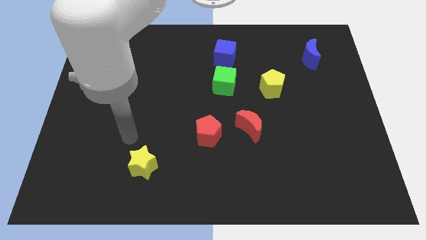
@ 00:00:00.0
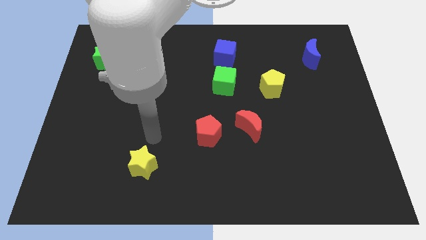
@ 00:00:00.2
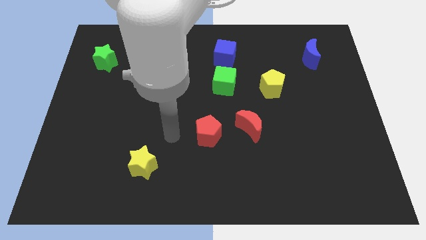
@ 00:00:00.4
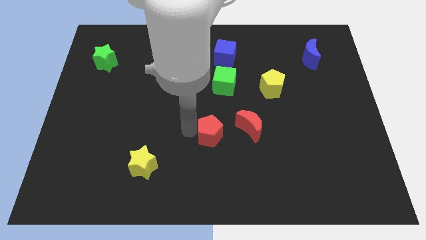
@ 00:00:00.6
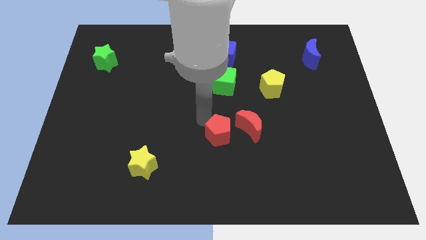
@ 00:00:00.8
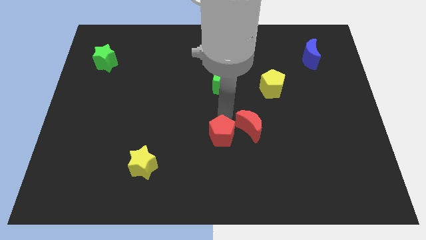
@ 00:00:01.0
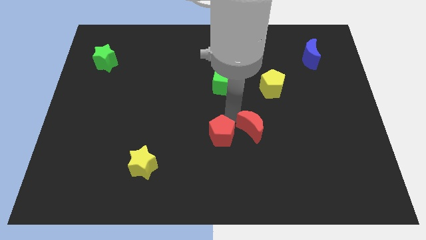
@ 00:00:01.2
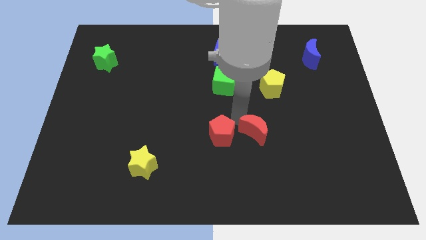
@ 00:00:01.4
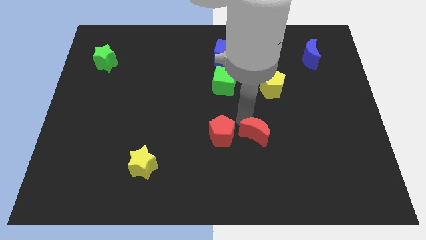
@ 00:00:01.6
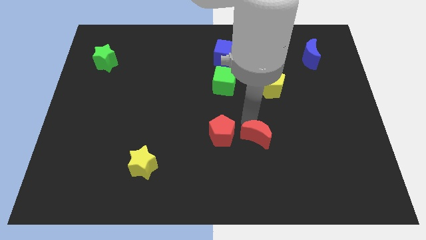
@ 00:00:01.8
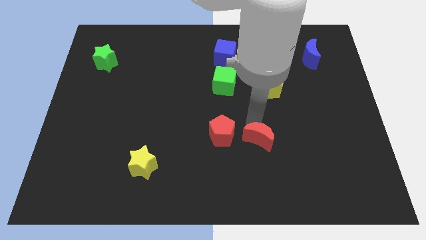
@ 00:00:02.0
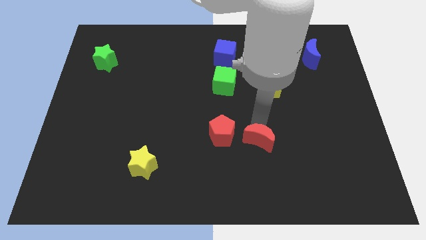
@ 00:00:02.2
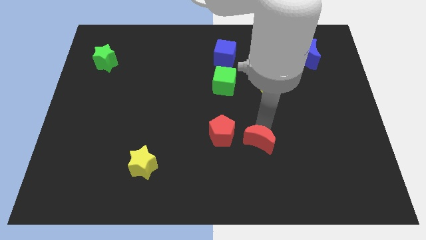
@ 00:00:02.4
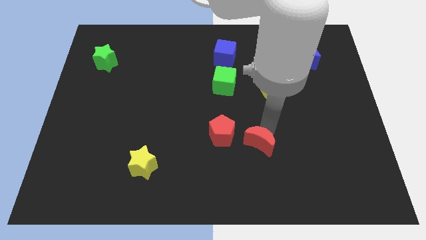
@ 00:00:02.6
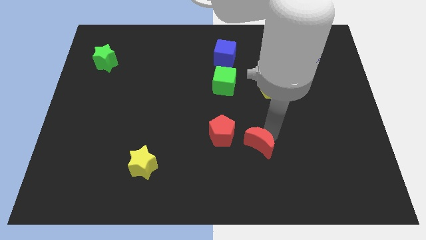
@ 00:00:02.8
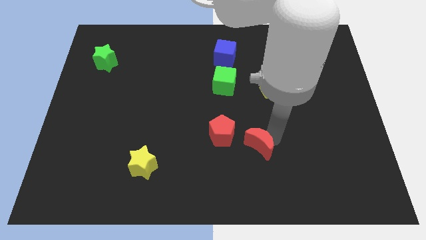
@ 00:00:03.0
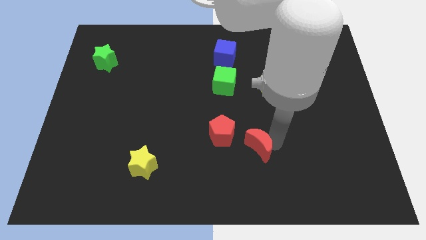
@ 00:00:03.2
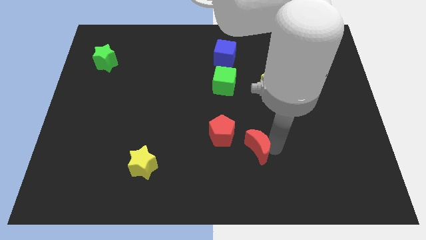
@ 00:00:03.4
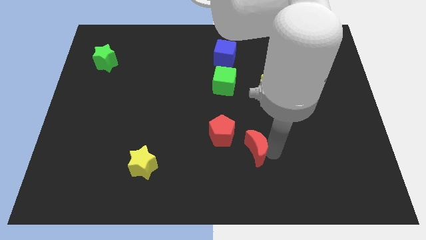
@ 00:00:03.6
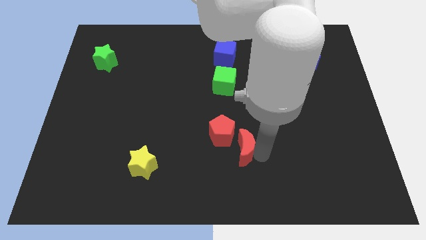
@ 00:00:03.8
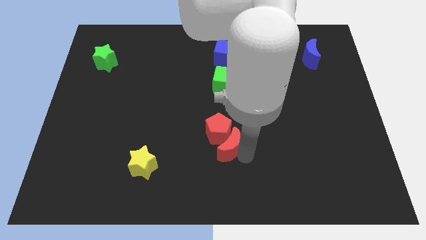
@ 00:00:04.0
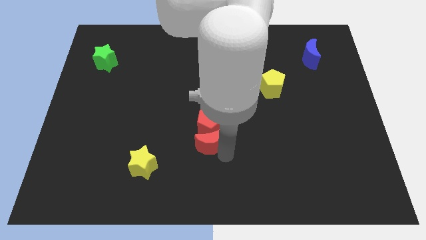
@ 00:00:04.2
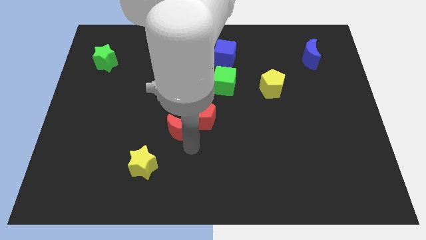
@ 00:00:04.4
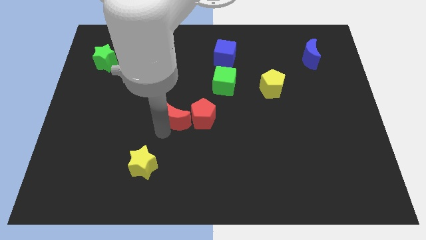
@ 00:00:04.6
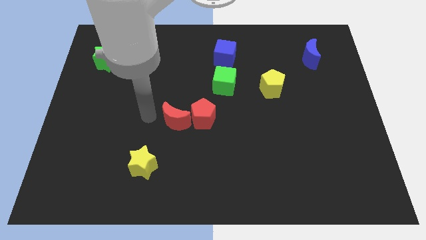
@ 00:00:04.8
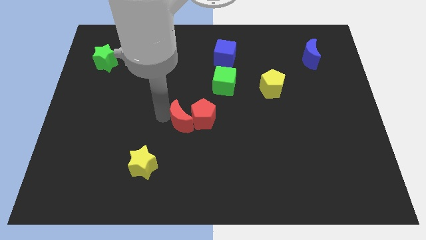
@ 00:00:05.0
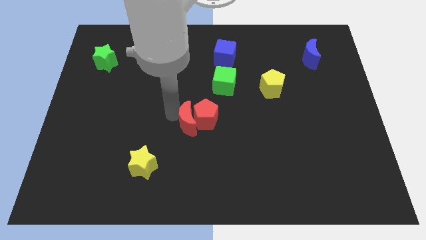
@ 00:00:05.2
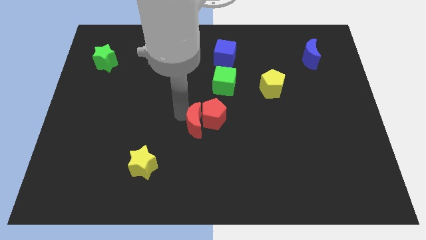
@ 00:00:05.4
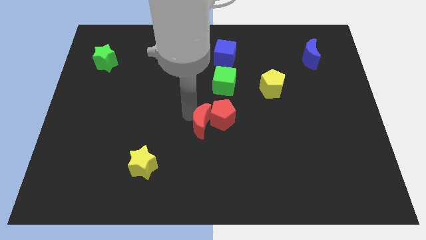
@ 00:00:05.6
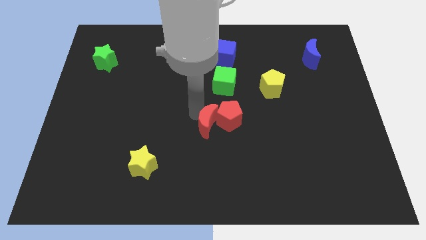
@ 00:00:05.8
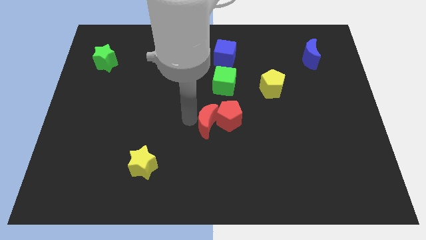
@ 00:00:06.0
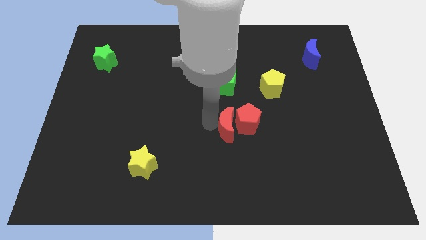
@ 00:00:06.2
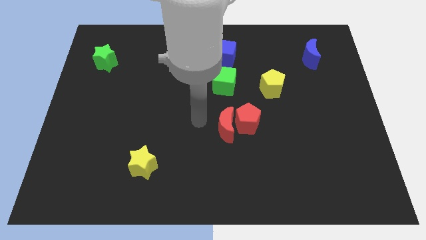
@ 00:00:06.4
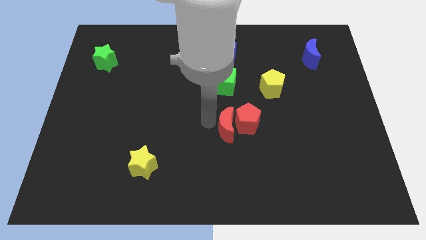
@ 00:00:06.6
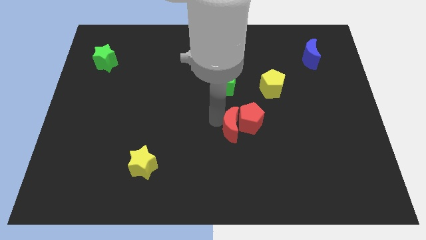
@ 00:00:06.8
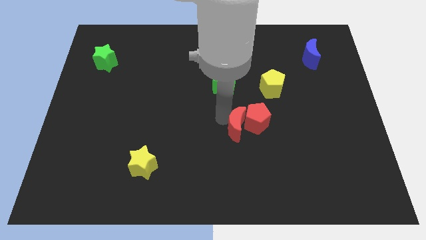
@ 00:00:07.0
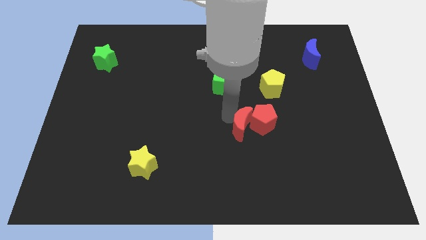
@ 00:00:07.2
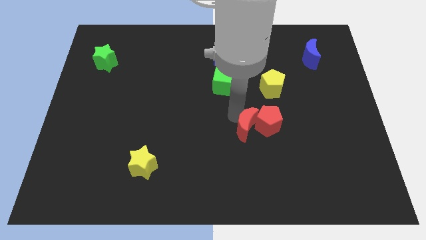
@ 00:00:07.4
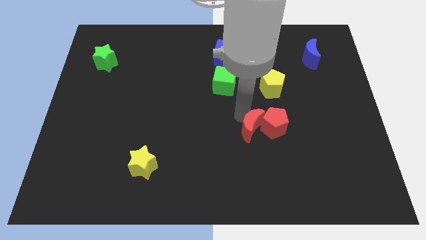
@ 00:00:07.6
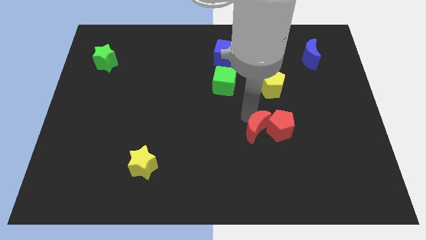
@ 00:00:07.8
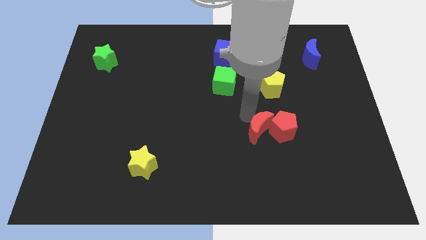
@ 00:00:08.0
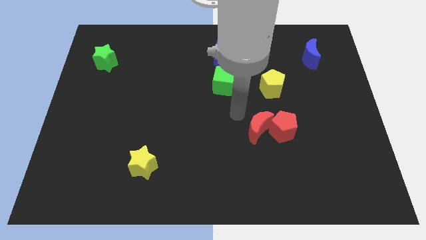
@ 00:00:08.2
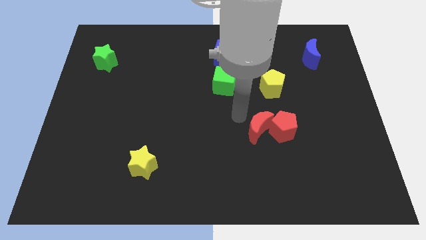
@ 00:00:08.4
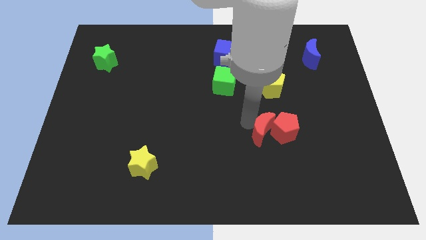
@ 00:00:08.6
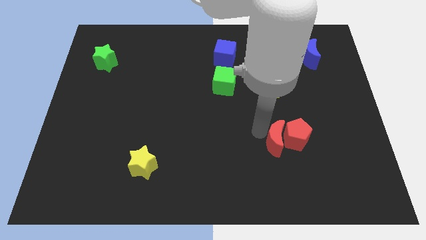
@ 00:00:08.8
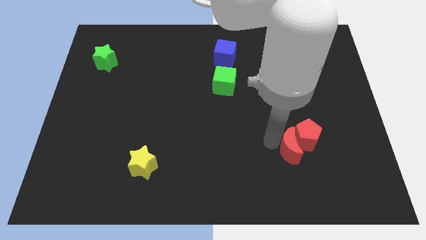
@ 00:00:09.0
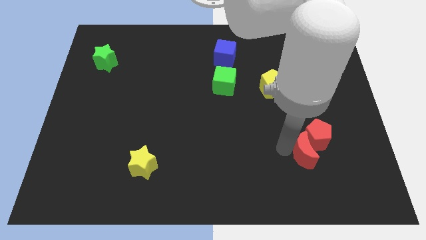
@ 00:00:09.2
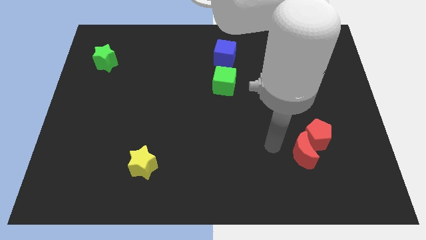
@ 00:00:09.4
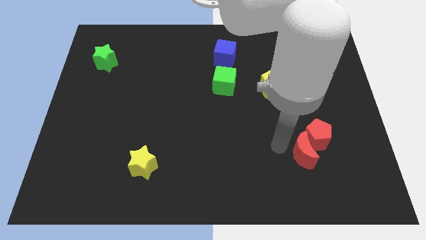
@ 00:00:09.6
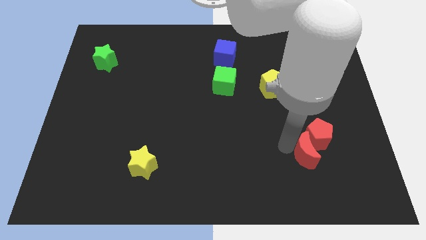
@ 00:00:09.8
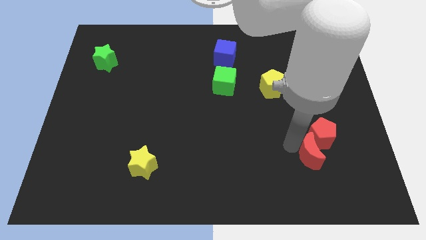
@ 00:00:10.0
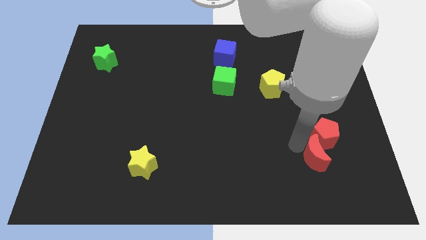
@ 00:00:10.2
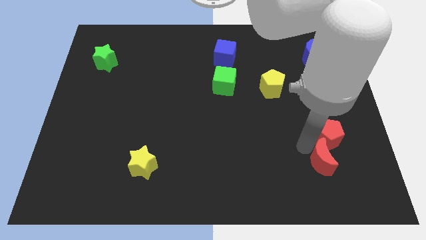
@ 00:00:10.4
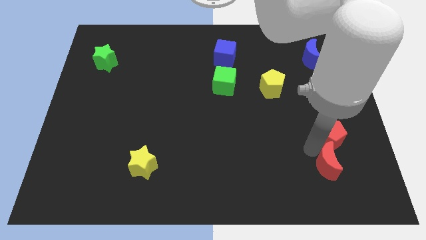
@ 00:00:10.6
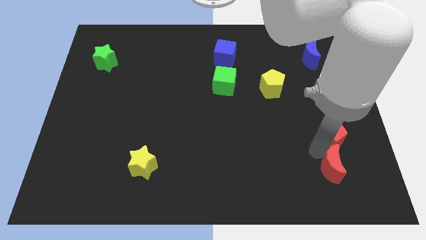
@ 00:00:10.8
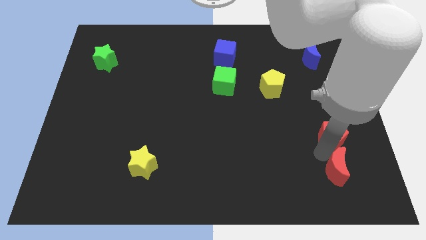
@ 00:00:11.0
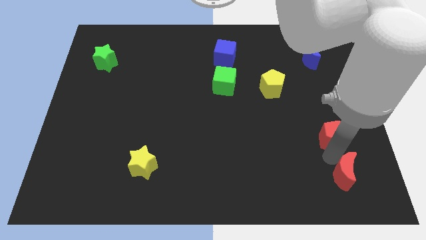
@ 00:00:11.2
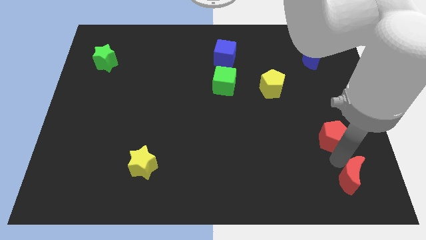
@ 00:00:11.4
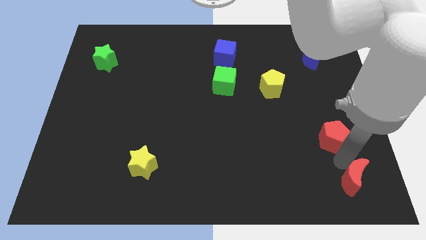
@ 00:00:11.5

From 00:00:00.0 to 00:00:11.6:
slide the red moon to the bottom right

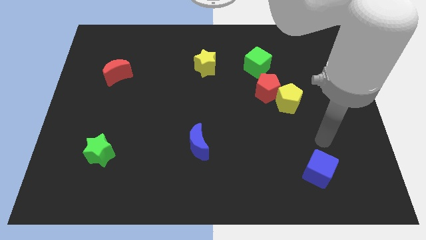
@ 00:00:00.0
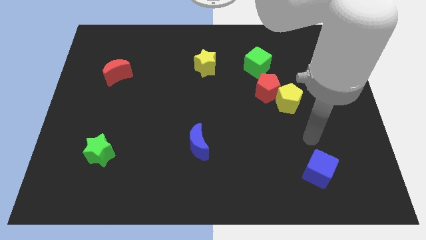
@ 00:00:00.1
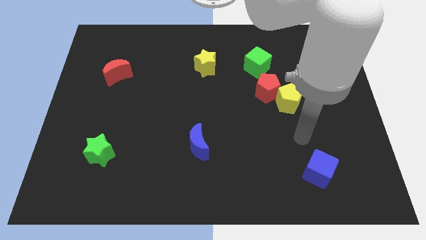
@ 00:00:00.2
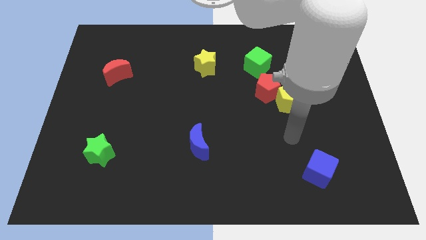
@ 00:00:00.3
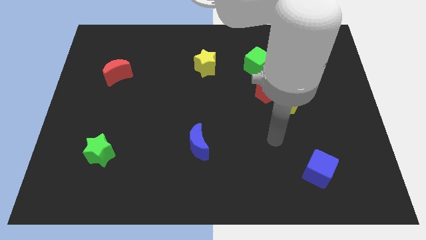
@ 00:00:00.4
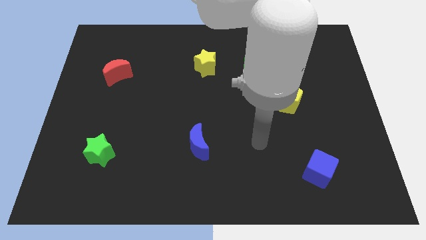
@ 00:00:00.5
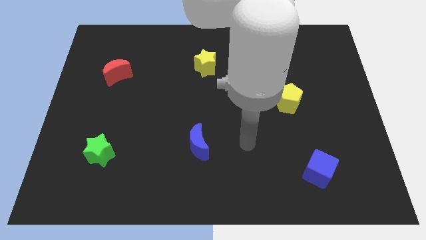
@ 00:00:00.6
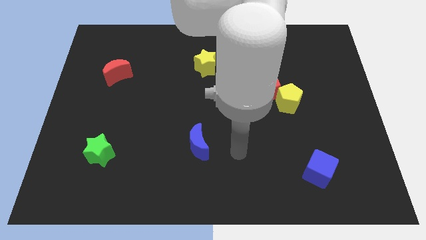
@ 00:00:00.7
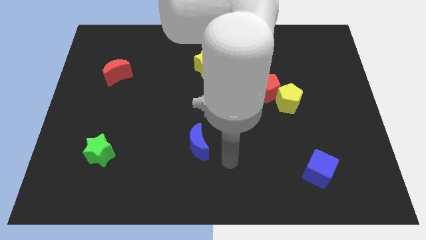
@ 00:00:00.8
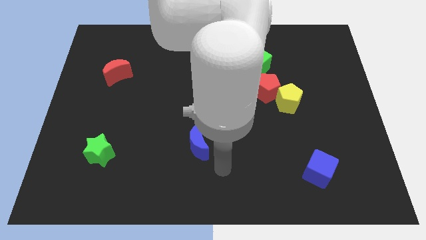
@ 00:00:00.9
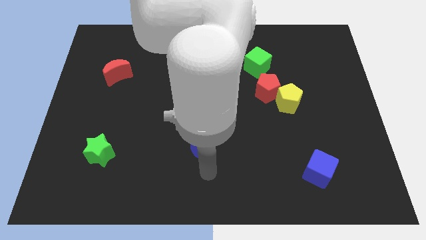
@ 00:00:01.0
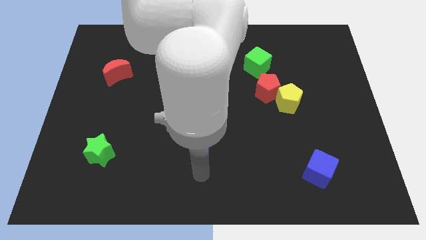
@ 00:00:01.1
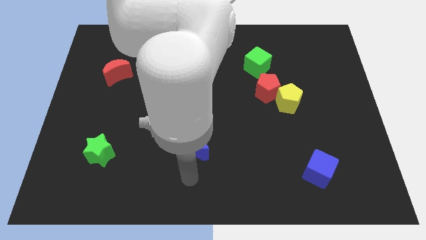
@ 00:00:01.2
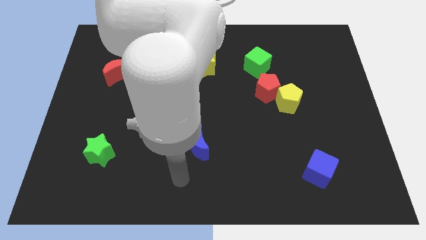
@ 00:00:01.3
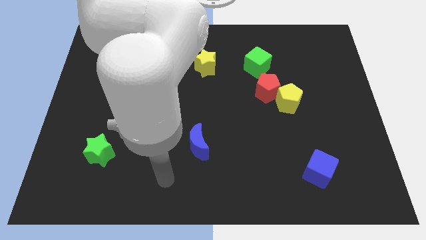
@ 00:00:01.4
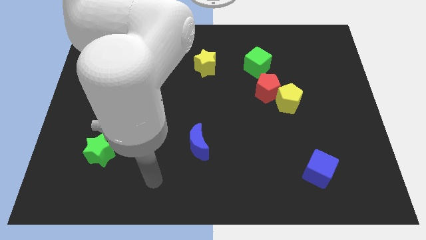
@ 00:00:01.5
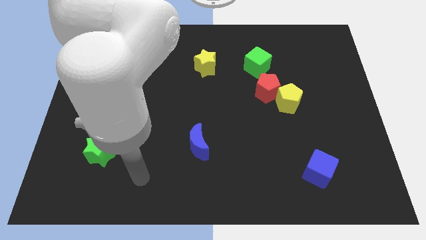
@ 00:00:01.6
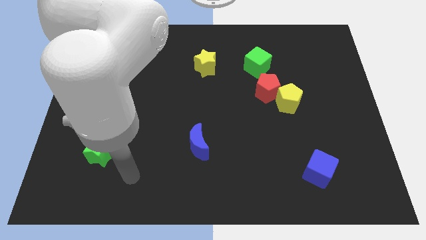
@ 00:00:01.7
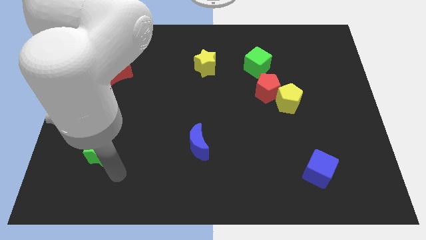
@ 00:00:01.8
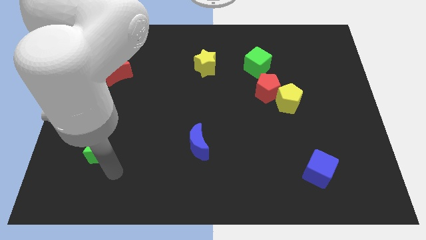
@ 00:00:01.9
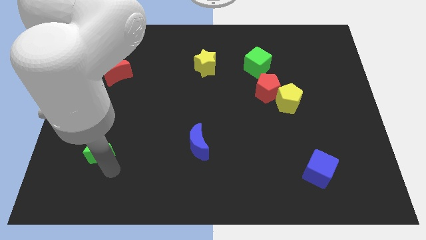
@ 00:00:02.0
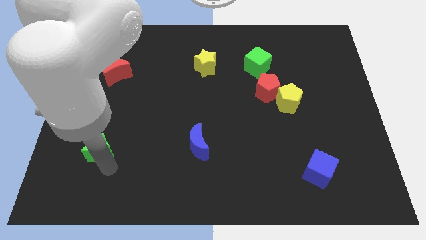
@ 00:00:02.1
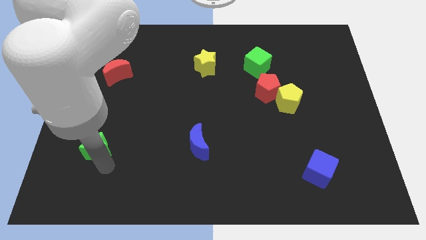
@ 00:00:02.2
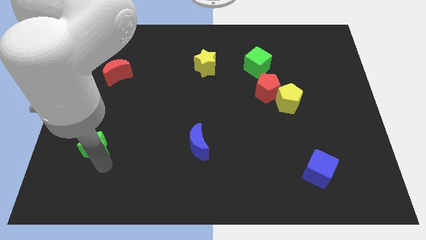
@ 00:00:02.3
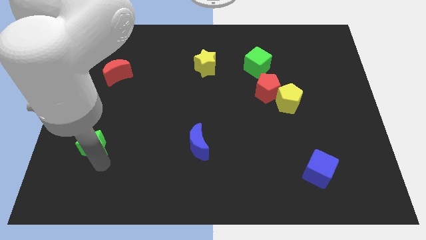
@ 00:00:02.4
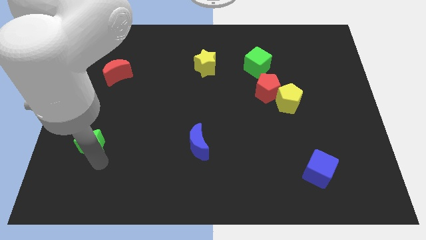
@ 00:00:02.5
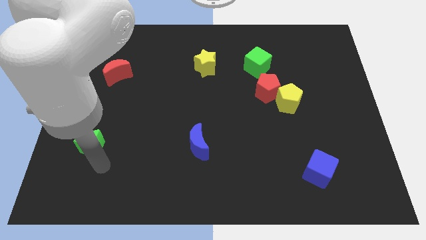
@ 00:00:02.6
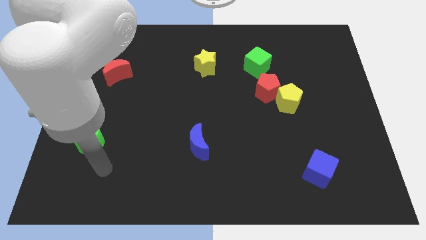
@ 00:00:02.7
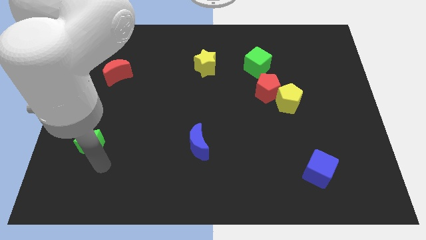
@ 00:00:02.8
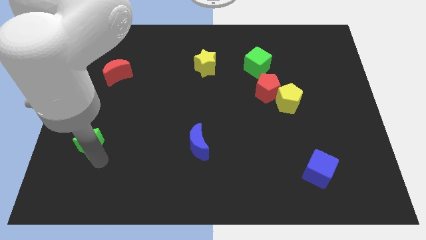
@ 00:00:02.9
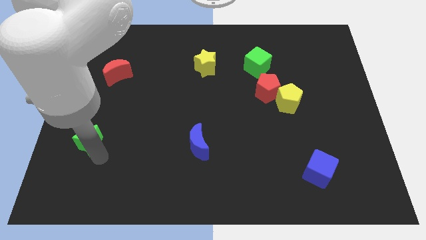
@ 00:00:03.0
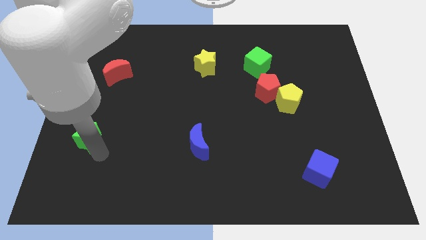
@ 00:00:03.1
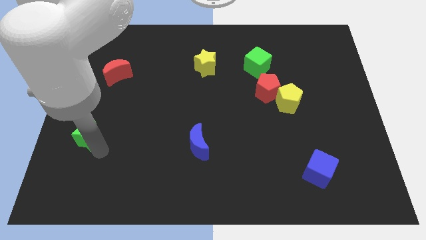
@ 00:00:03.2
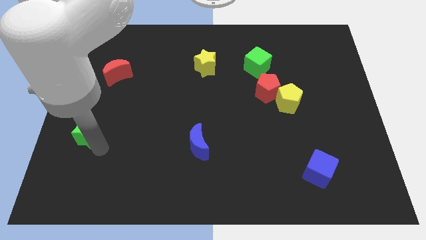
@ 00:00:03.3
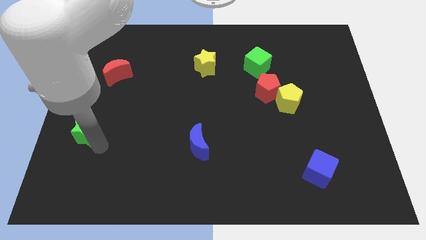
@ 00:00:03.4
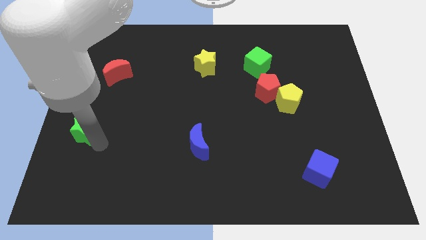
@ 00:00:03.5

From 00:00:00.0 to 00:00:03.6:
put the green star to the left side of the board
